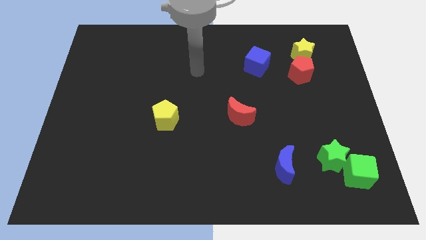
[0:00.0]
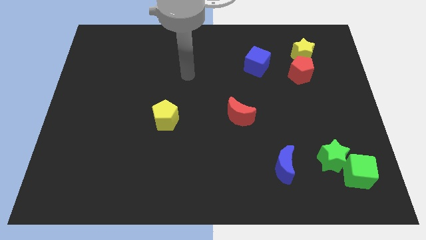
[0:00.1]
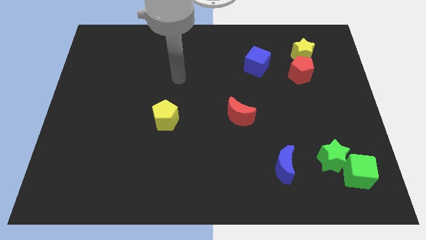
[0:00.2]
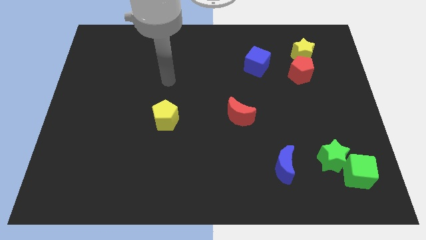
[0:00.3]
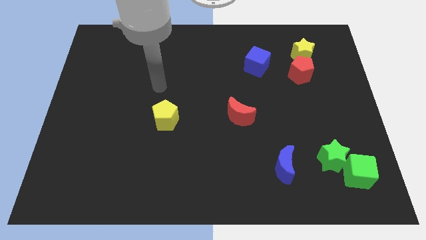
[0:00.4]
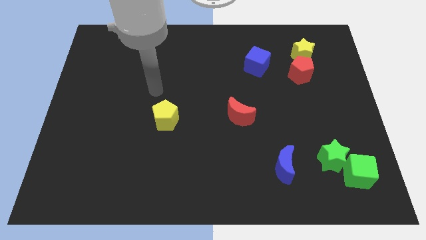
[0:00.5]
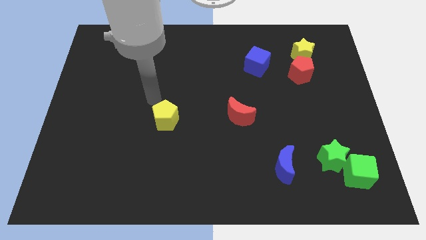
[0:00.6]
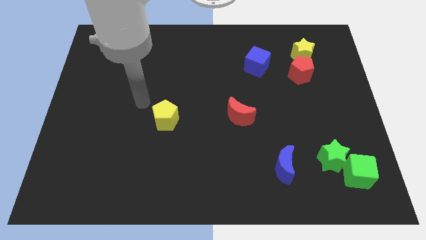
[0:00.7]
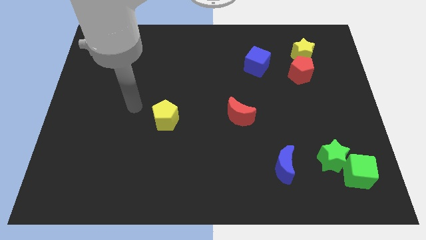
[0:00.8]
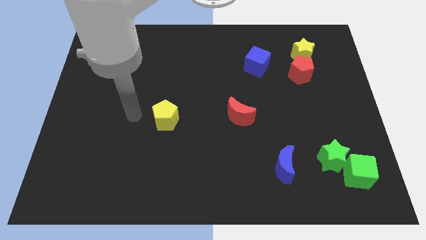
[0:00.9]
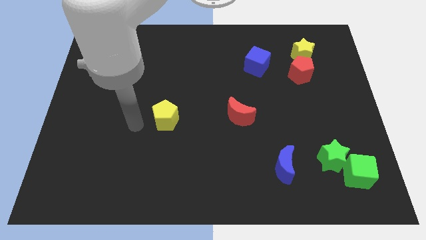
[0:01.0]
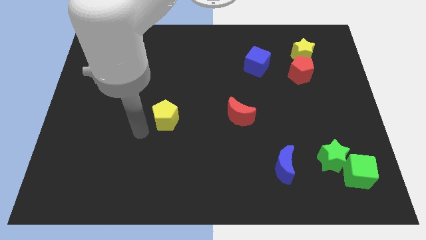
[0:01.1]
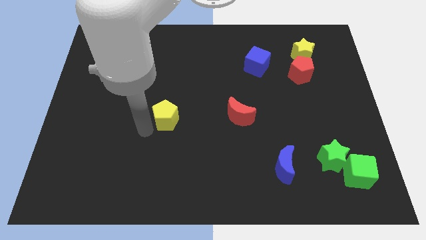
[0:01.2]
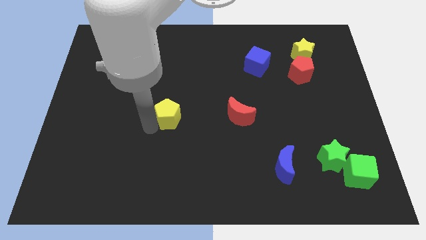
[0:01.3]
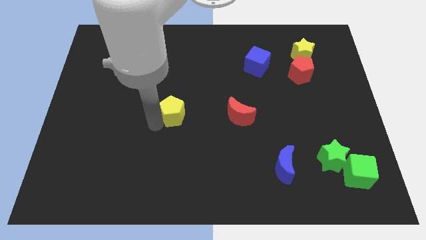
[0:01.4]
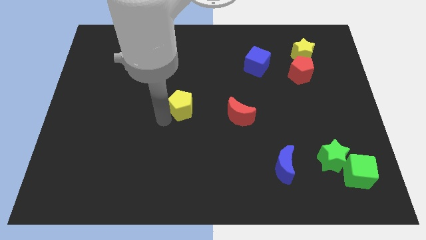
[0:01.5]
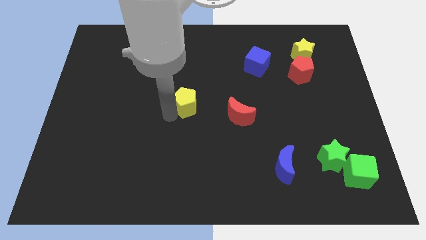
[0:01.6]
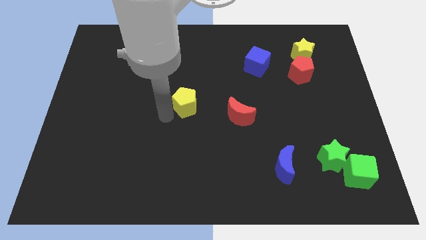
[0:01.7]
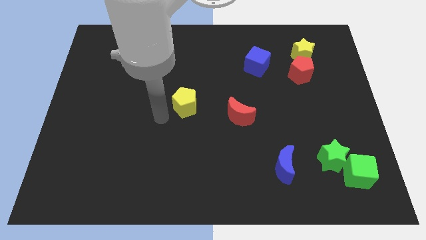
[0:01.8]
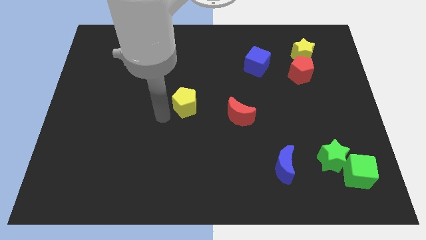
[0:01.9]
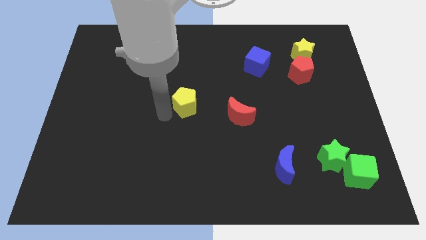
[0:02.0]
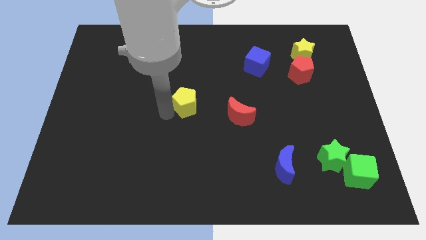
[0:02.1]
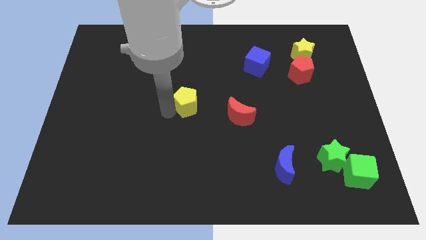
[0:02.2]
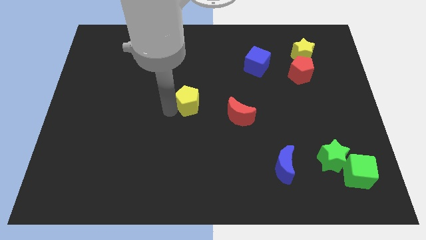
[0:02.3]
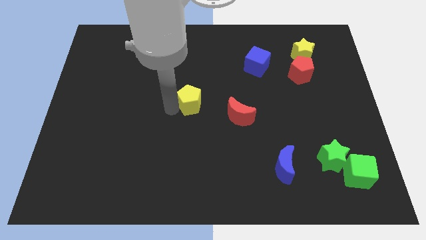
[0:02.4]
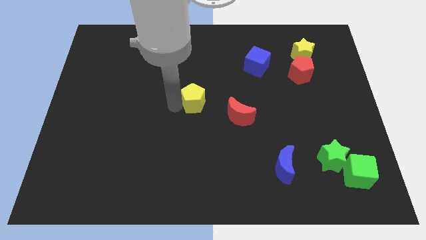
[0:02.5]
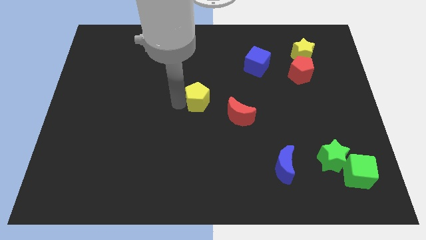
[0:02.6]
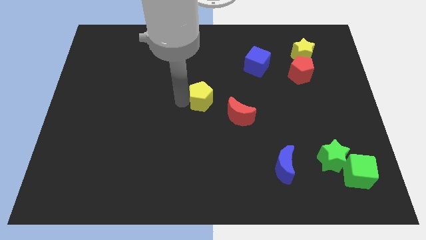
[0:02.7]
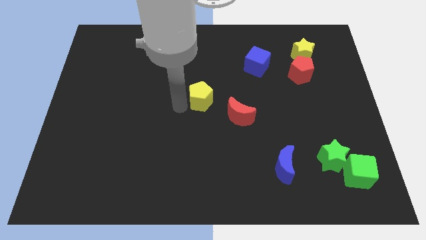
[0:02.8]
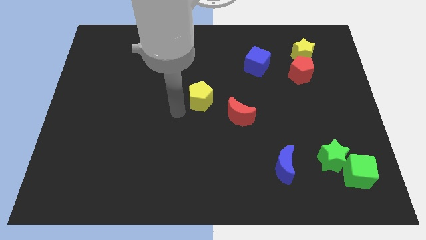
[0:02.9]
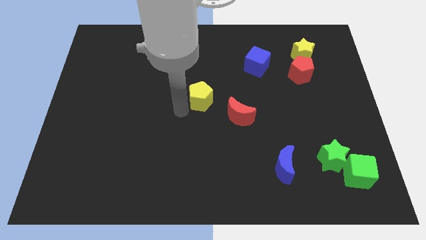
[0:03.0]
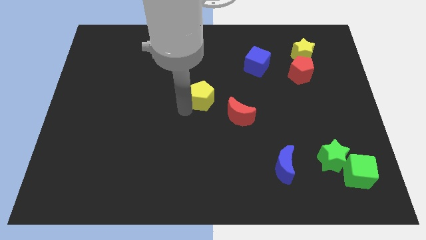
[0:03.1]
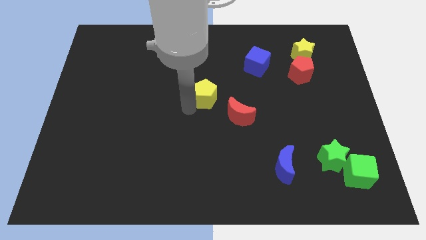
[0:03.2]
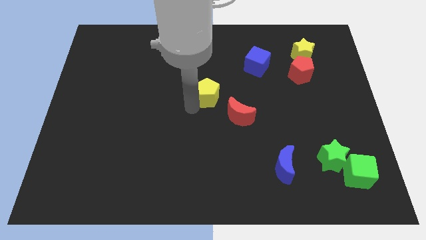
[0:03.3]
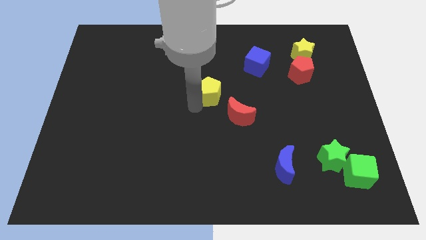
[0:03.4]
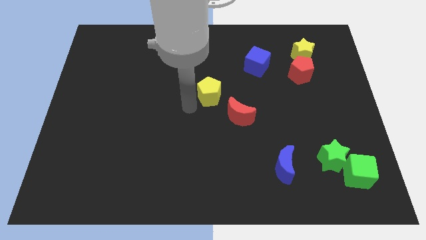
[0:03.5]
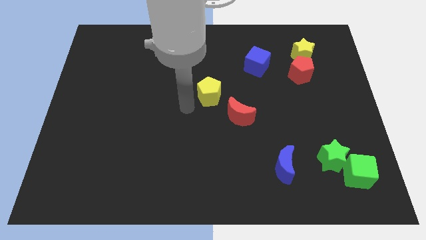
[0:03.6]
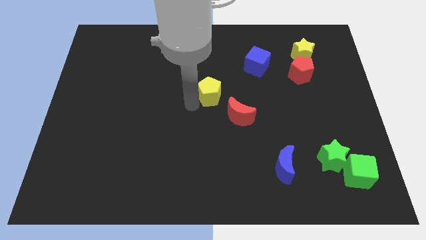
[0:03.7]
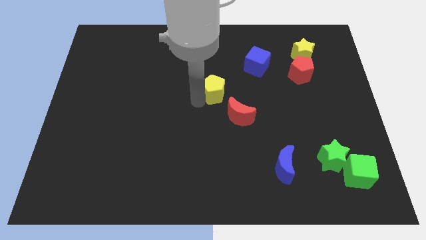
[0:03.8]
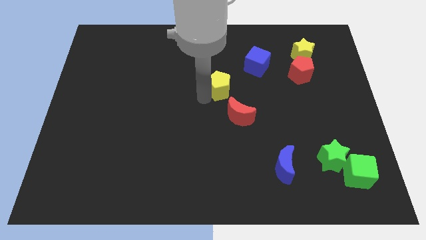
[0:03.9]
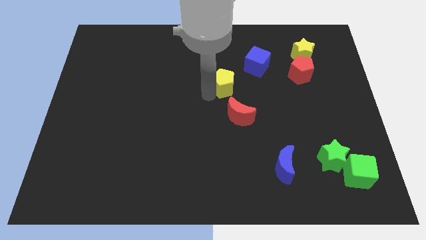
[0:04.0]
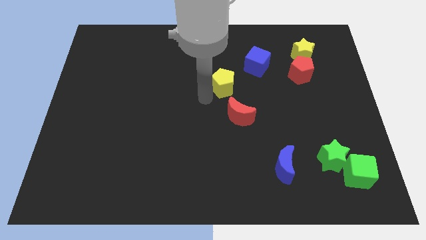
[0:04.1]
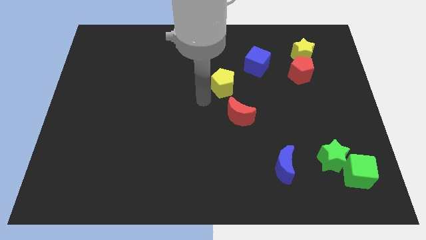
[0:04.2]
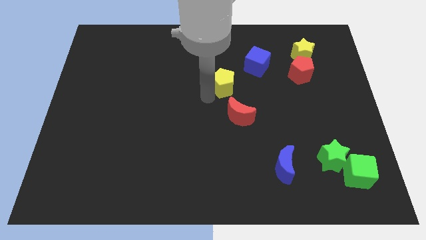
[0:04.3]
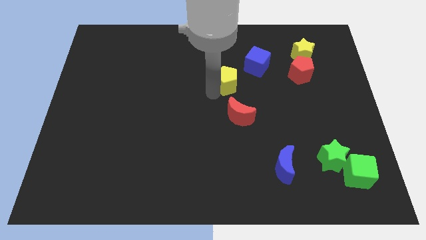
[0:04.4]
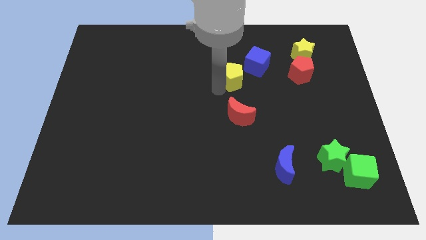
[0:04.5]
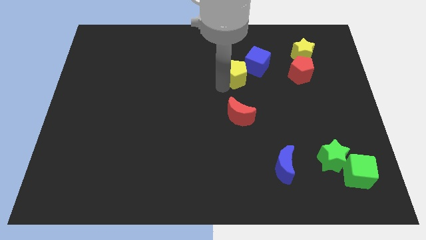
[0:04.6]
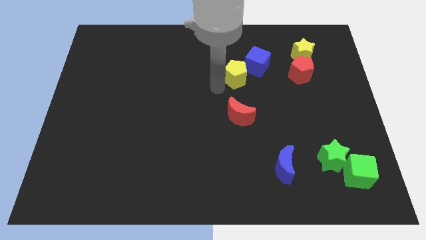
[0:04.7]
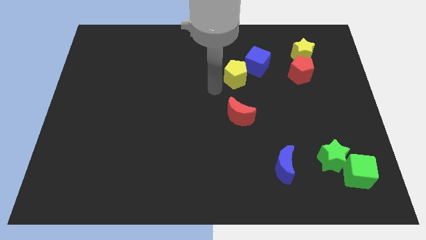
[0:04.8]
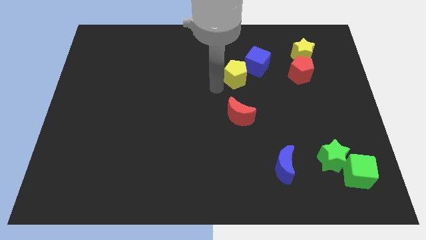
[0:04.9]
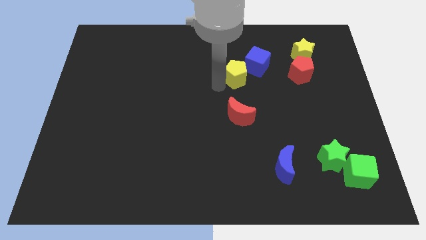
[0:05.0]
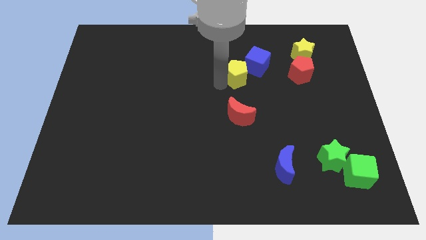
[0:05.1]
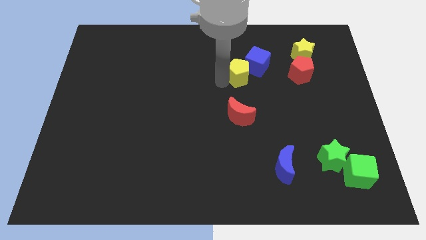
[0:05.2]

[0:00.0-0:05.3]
move the yellow pentagon to the blue cube

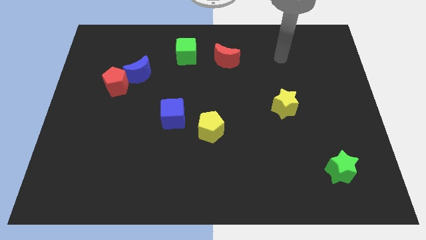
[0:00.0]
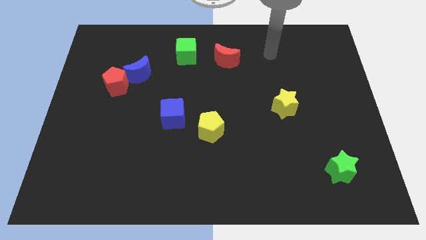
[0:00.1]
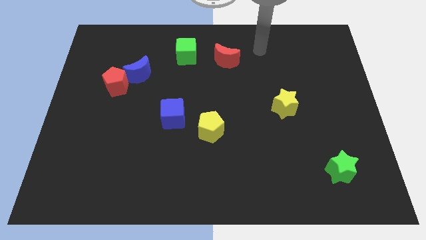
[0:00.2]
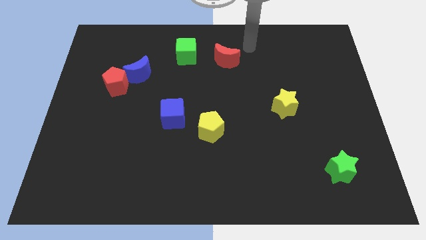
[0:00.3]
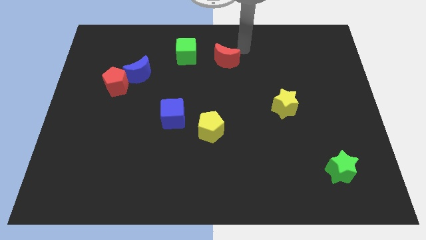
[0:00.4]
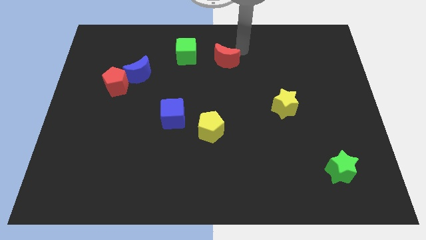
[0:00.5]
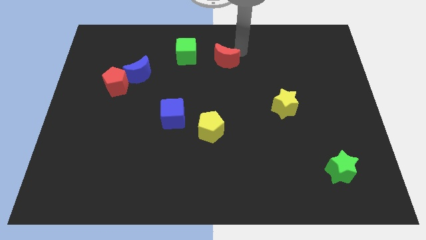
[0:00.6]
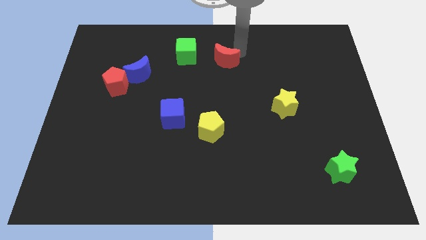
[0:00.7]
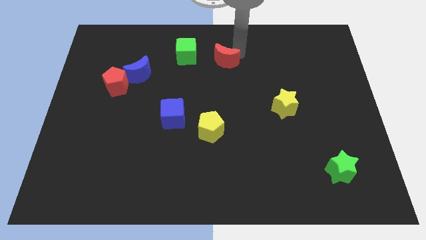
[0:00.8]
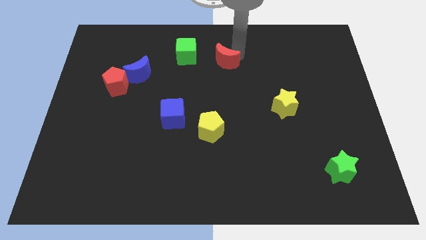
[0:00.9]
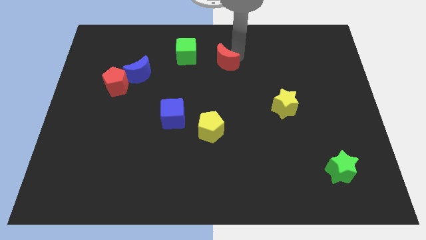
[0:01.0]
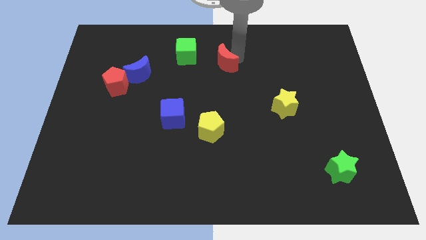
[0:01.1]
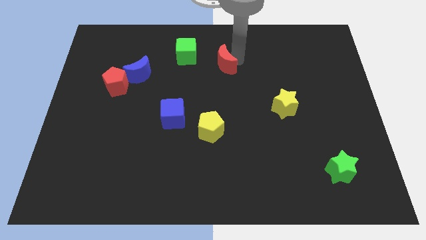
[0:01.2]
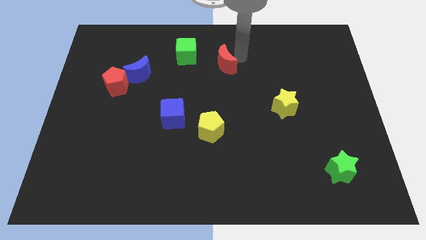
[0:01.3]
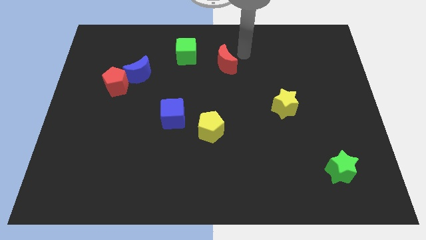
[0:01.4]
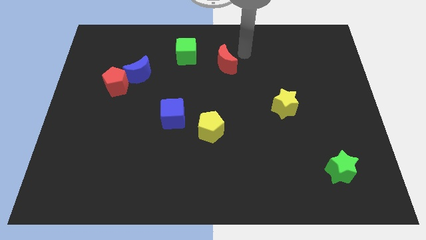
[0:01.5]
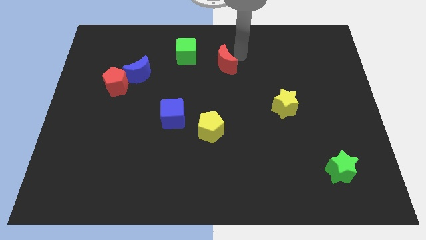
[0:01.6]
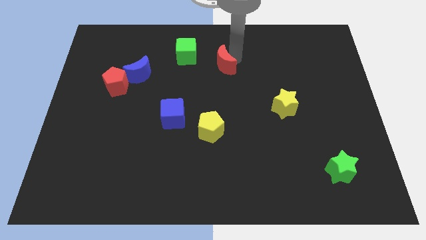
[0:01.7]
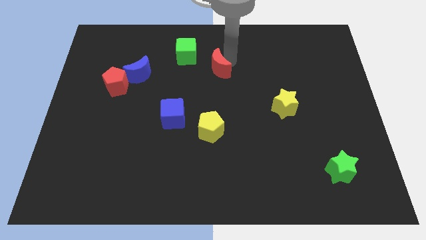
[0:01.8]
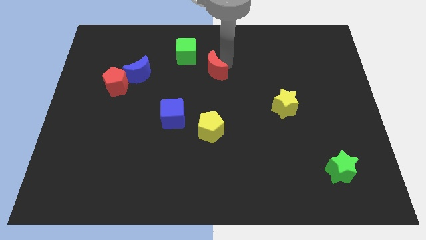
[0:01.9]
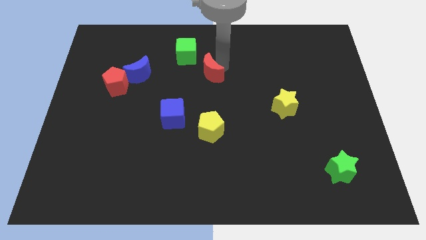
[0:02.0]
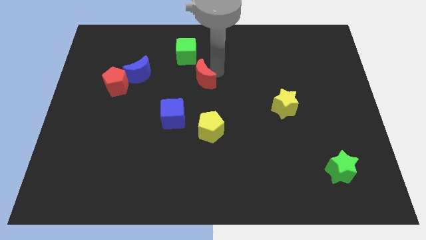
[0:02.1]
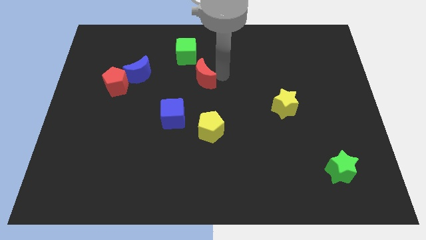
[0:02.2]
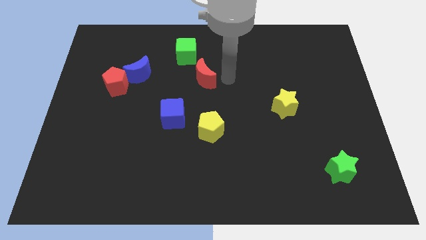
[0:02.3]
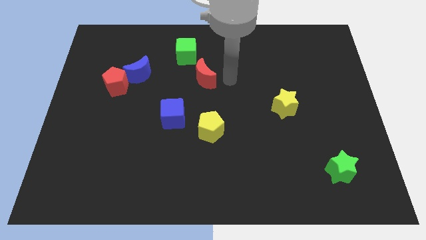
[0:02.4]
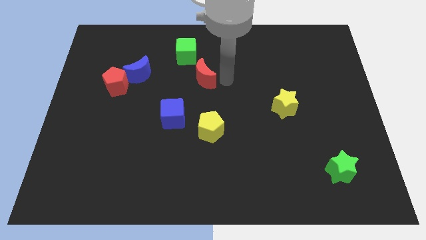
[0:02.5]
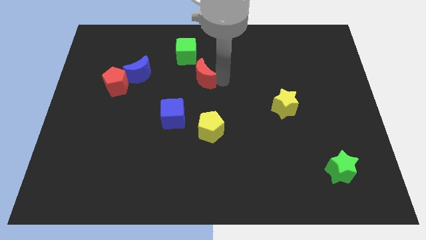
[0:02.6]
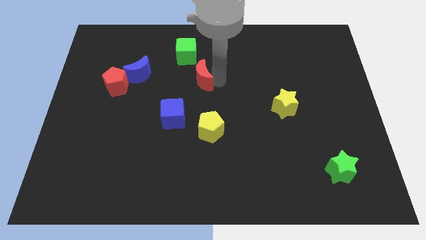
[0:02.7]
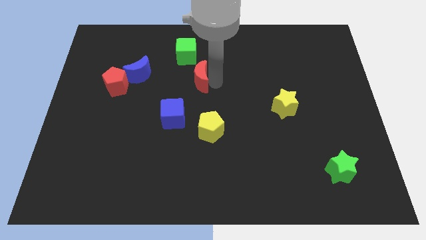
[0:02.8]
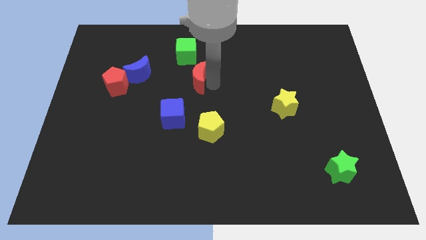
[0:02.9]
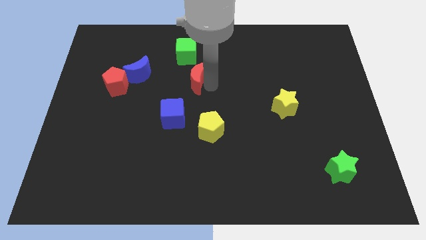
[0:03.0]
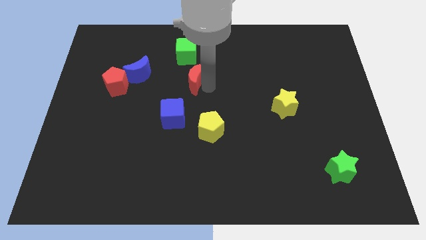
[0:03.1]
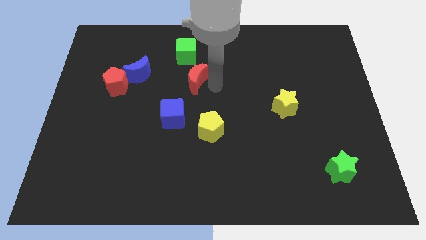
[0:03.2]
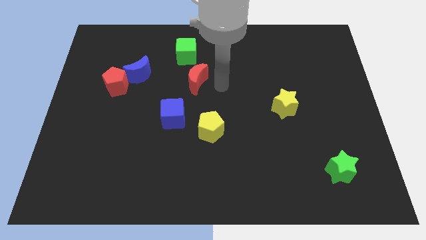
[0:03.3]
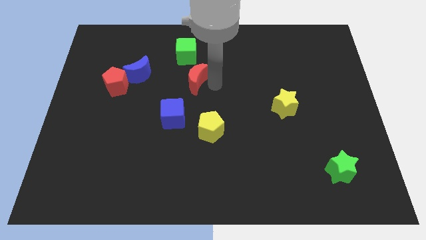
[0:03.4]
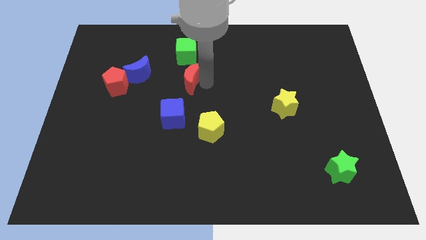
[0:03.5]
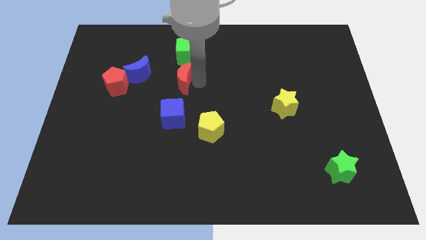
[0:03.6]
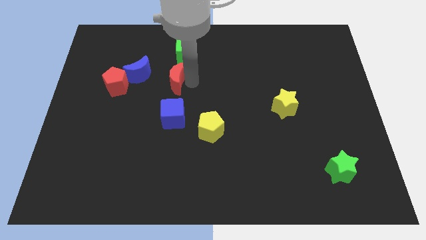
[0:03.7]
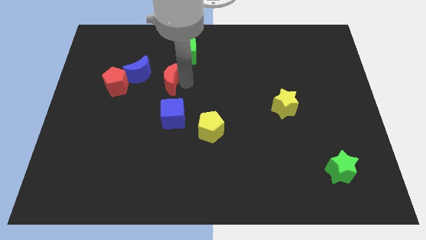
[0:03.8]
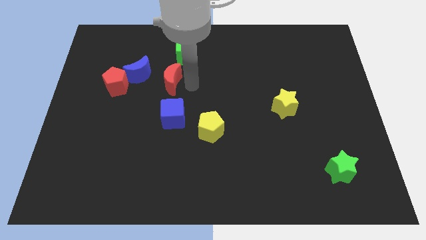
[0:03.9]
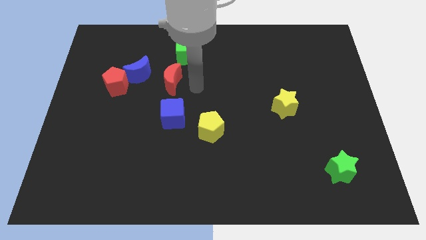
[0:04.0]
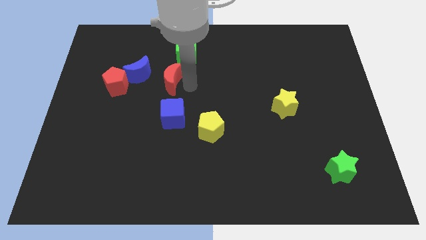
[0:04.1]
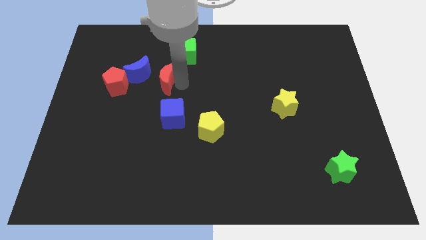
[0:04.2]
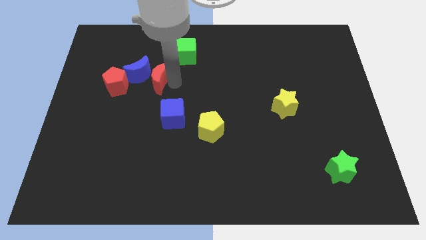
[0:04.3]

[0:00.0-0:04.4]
move the red moon to the blue moon
